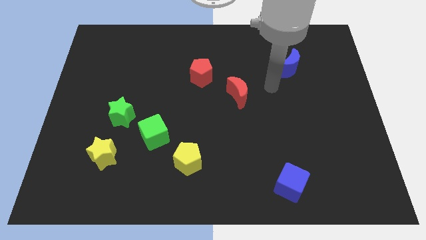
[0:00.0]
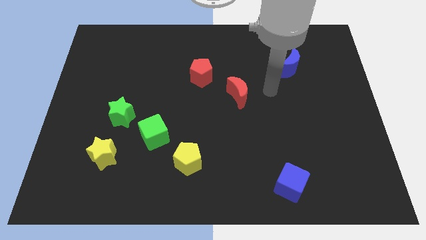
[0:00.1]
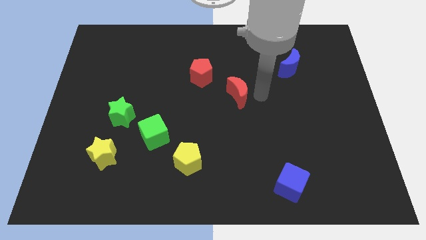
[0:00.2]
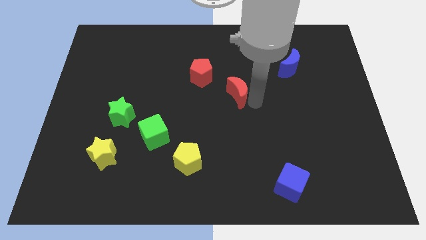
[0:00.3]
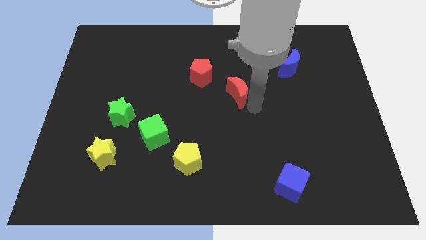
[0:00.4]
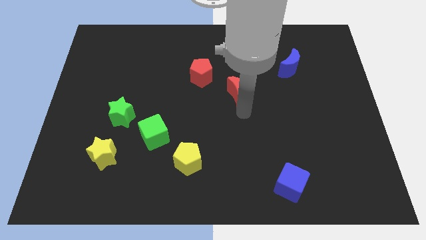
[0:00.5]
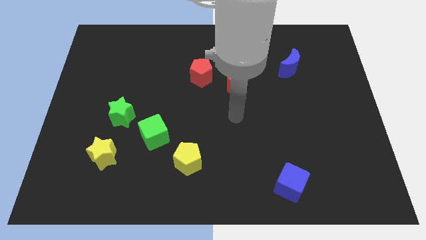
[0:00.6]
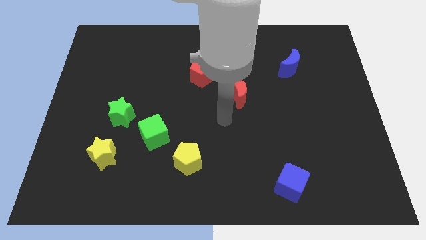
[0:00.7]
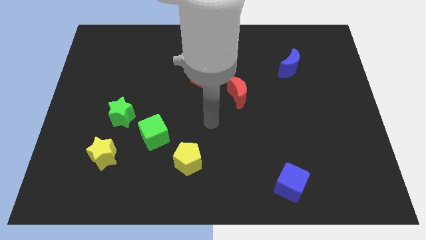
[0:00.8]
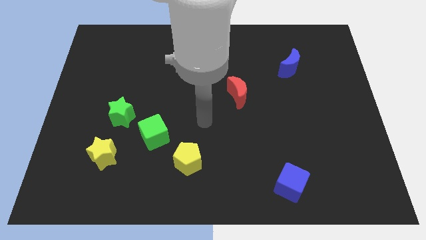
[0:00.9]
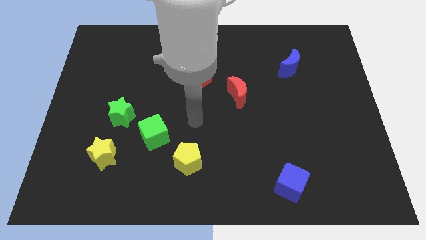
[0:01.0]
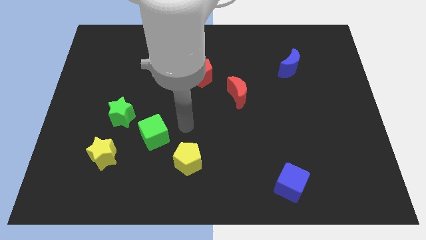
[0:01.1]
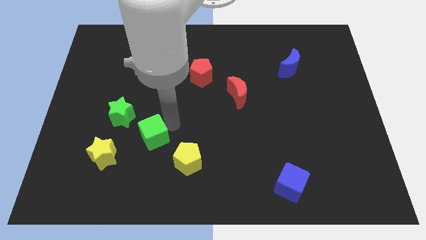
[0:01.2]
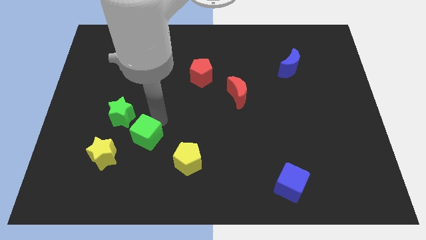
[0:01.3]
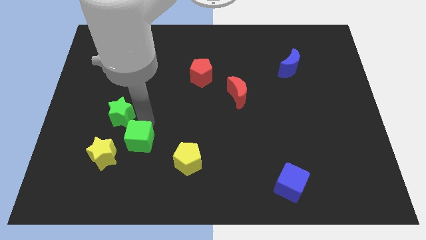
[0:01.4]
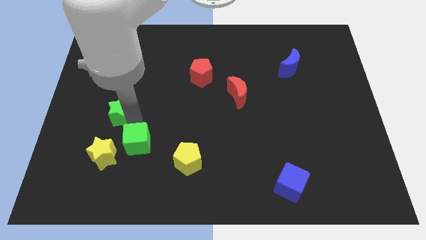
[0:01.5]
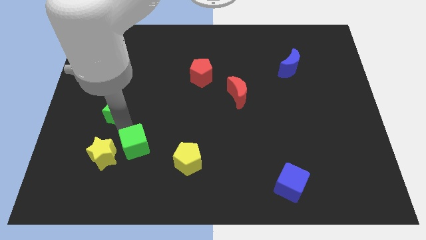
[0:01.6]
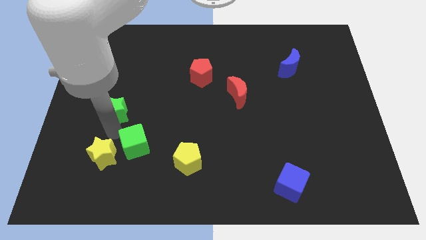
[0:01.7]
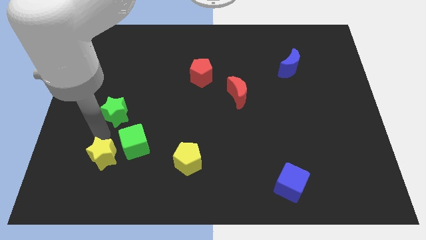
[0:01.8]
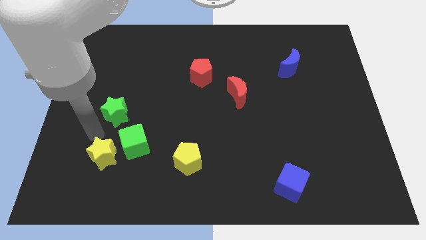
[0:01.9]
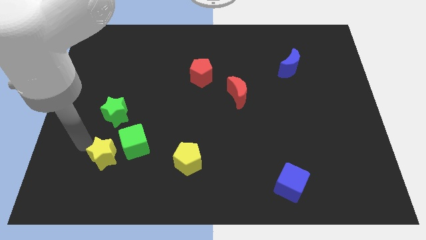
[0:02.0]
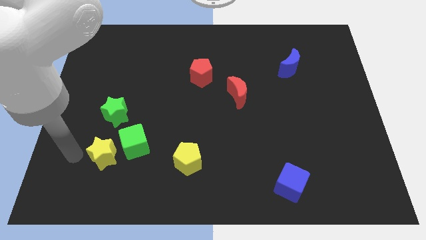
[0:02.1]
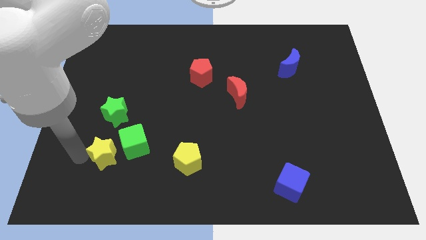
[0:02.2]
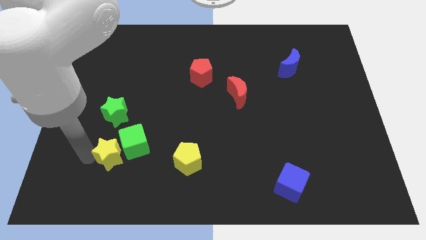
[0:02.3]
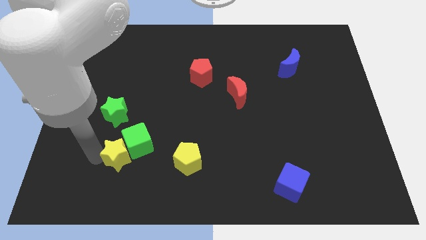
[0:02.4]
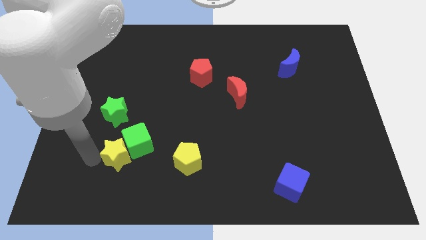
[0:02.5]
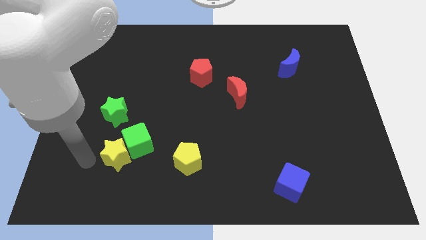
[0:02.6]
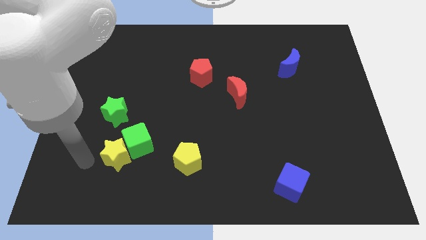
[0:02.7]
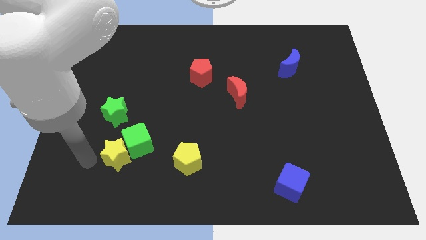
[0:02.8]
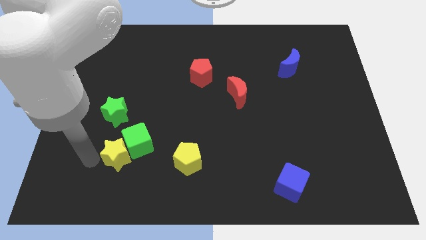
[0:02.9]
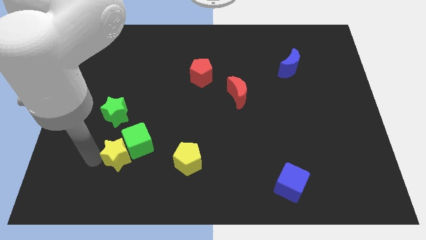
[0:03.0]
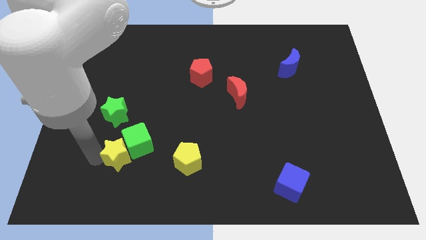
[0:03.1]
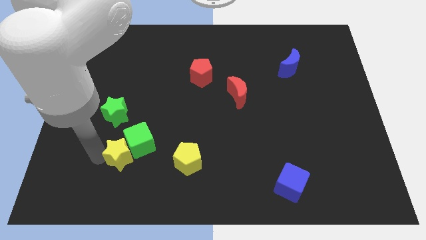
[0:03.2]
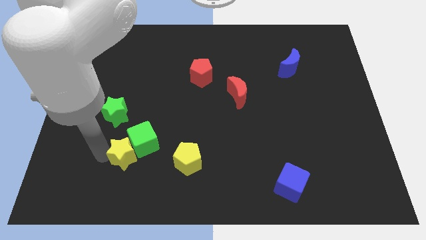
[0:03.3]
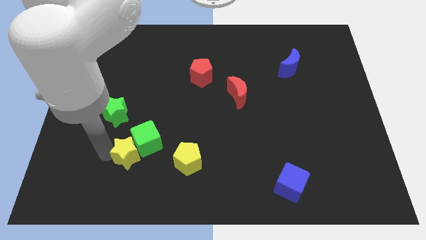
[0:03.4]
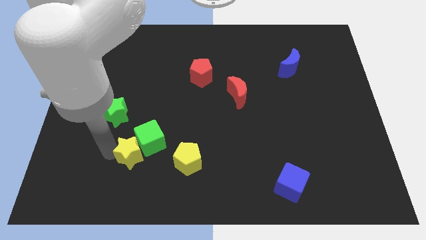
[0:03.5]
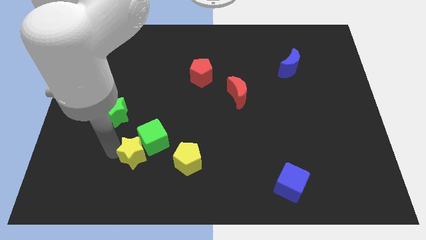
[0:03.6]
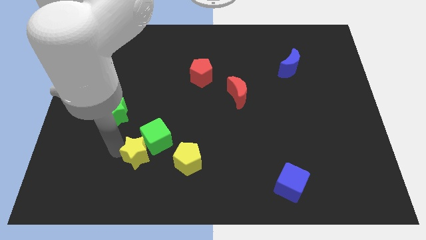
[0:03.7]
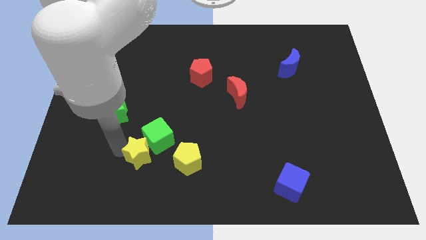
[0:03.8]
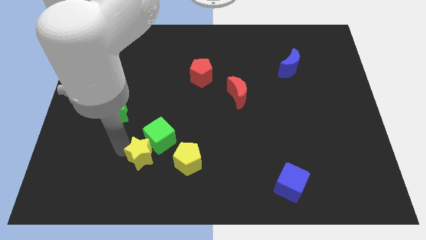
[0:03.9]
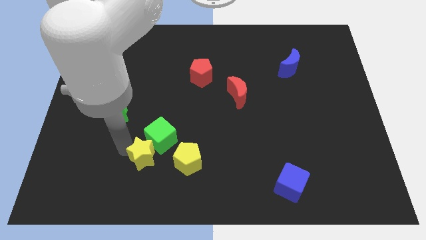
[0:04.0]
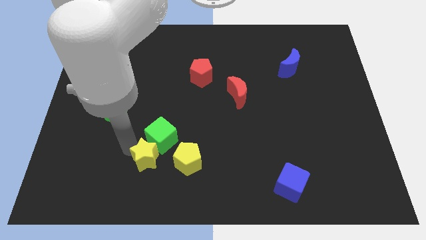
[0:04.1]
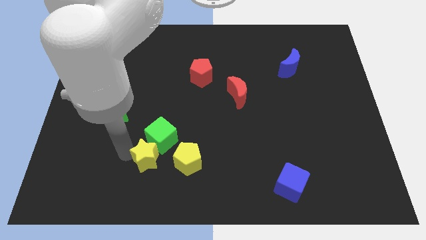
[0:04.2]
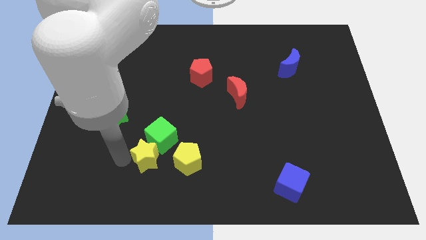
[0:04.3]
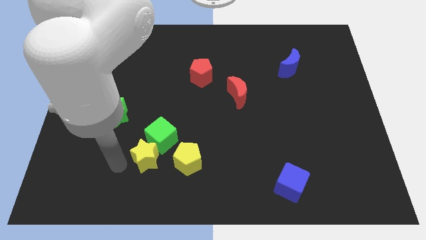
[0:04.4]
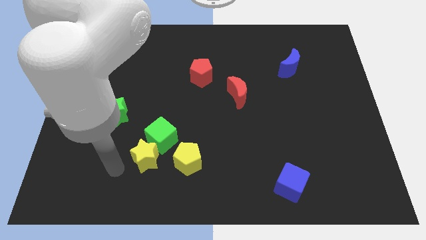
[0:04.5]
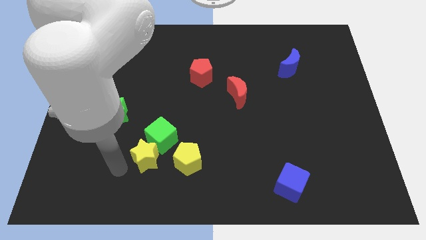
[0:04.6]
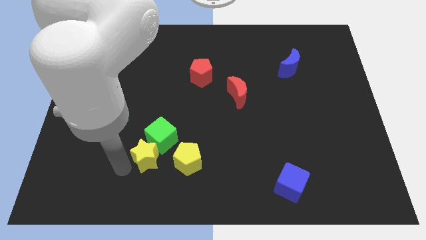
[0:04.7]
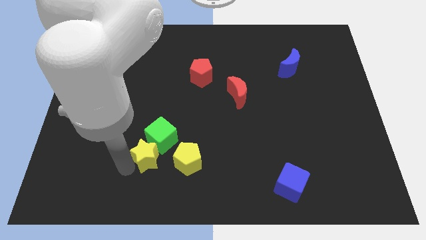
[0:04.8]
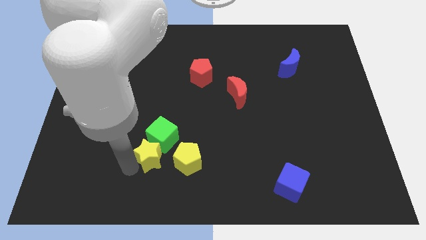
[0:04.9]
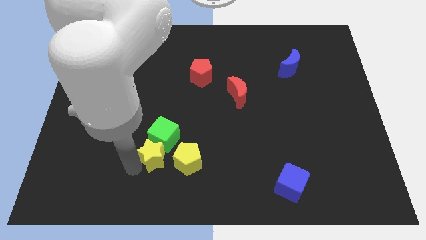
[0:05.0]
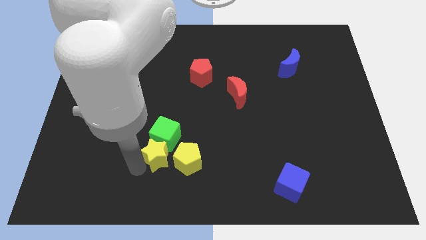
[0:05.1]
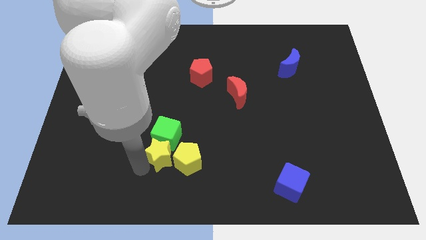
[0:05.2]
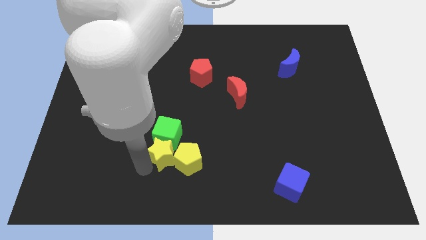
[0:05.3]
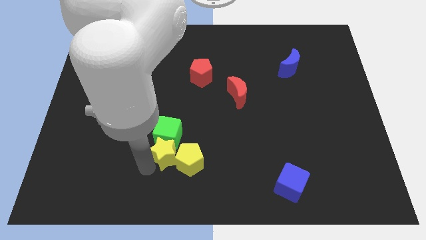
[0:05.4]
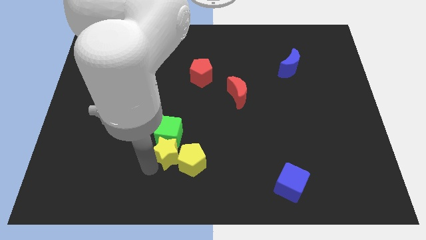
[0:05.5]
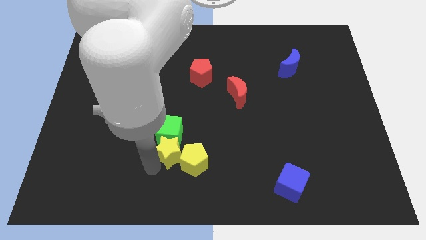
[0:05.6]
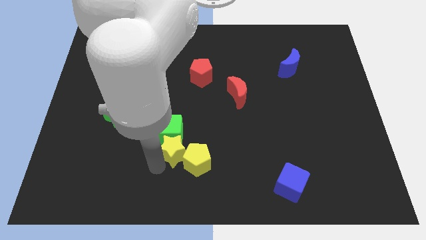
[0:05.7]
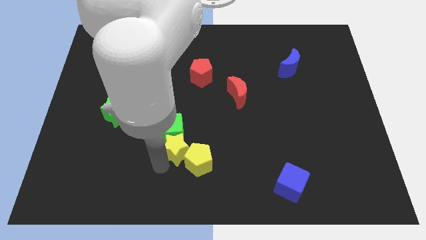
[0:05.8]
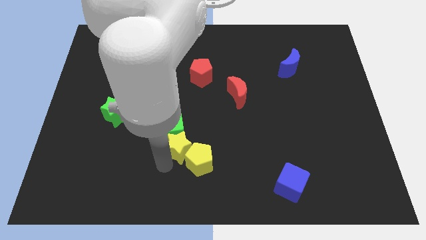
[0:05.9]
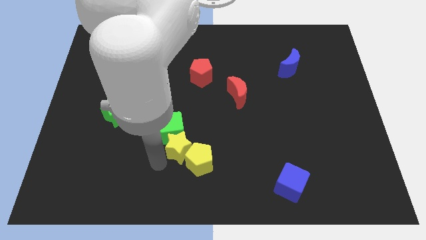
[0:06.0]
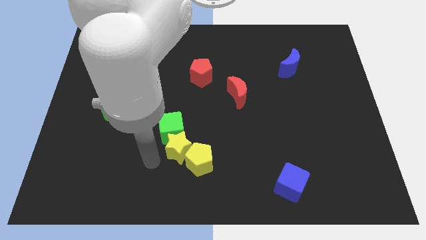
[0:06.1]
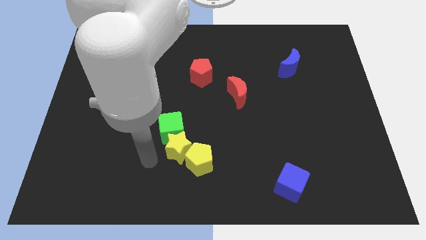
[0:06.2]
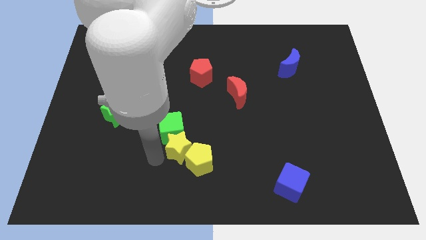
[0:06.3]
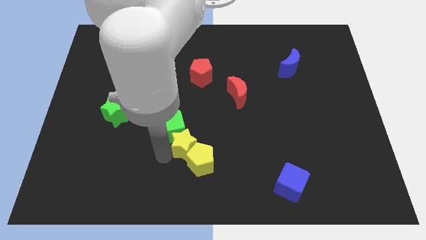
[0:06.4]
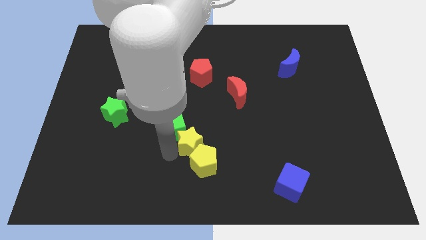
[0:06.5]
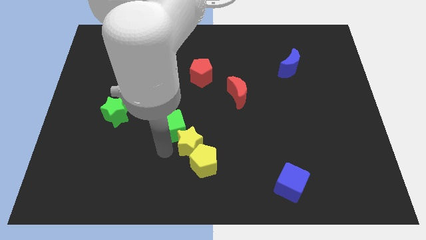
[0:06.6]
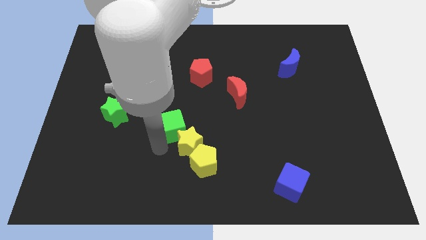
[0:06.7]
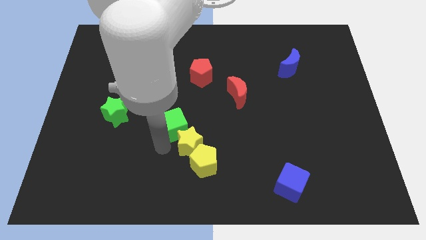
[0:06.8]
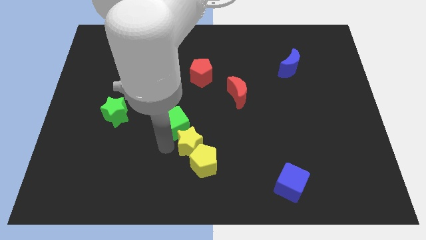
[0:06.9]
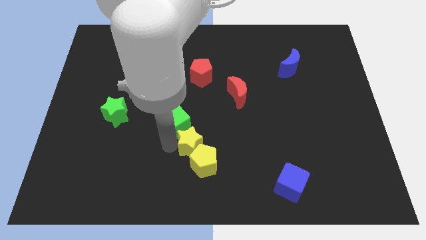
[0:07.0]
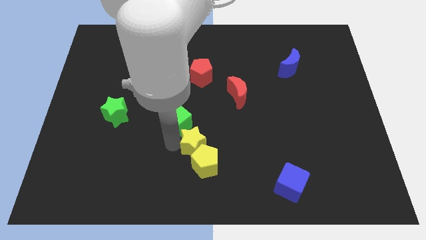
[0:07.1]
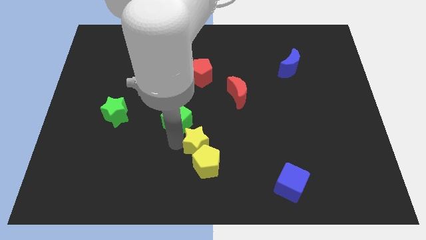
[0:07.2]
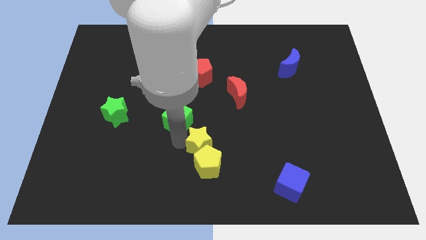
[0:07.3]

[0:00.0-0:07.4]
slide the yellow star to the right

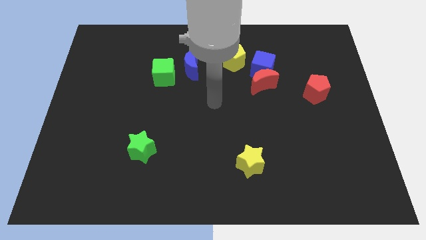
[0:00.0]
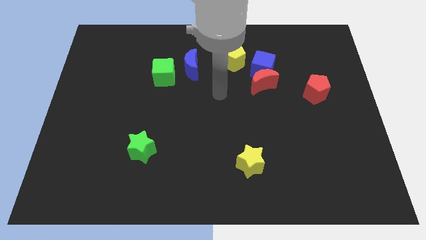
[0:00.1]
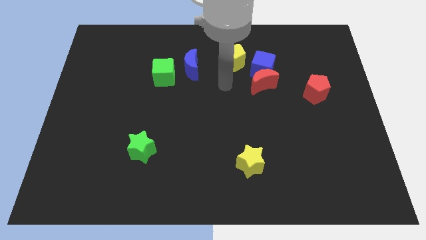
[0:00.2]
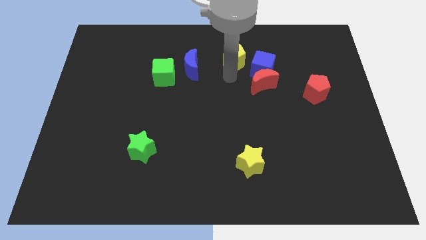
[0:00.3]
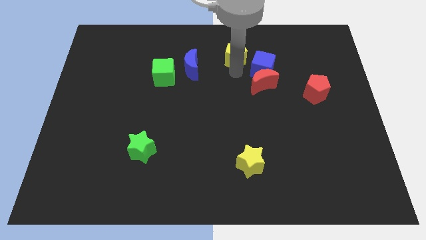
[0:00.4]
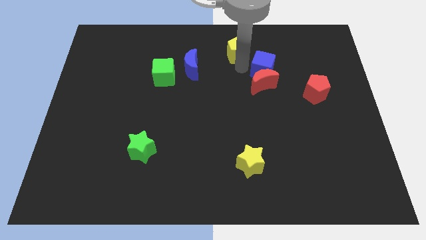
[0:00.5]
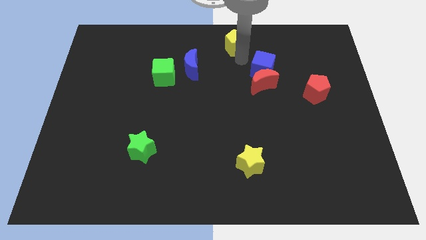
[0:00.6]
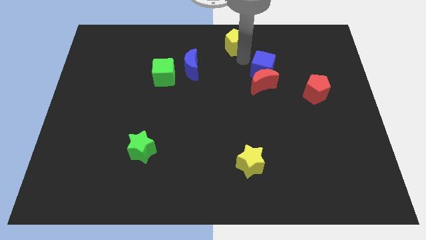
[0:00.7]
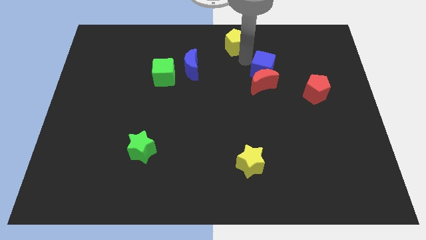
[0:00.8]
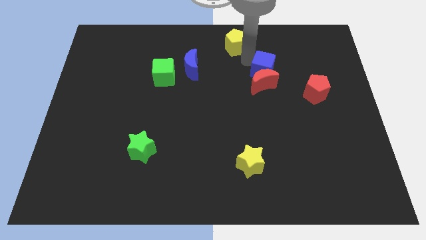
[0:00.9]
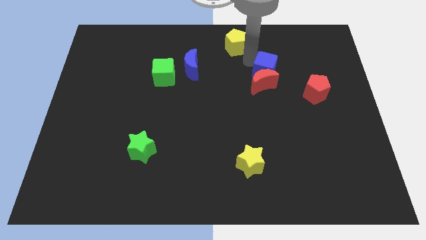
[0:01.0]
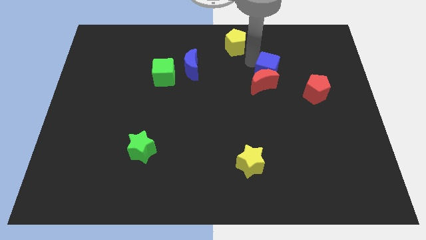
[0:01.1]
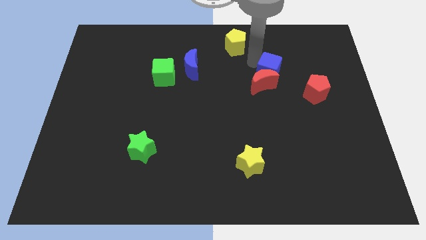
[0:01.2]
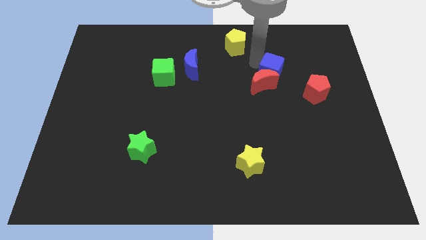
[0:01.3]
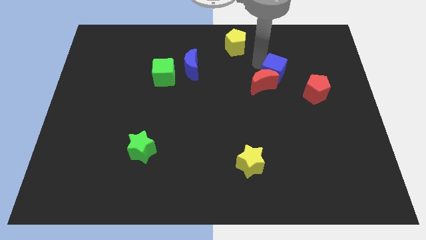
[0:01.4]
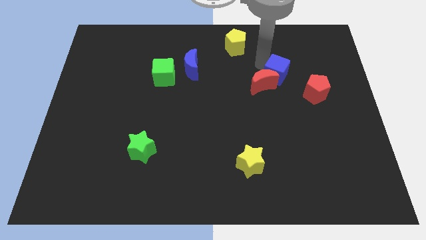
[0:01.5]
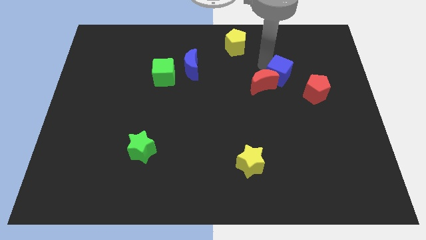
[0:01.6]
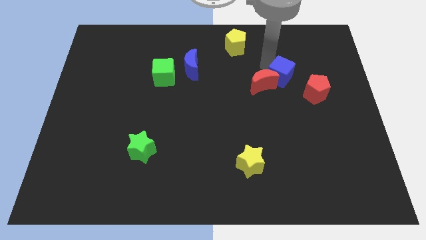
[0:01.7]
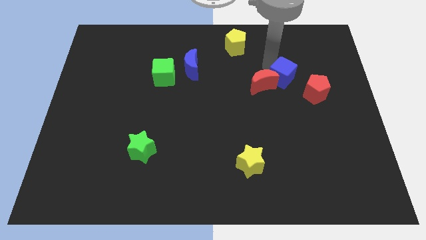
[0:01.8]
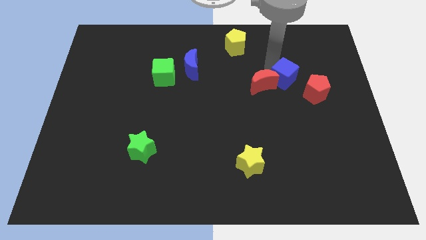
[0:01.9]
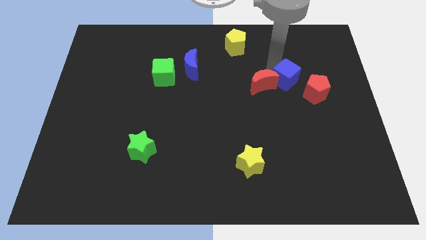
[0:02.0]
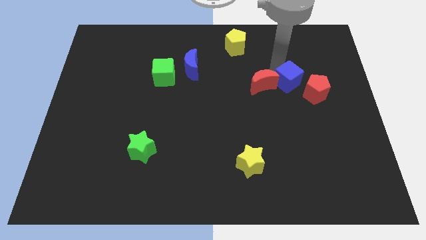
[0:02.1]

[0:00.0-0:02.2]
move the blue cube downwards and right a bit
